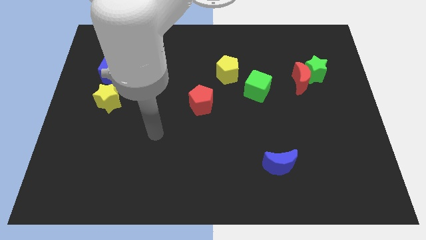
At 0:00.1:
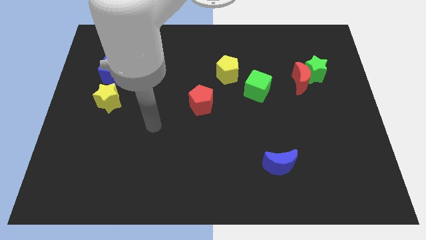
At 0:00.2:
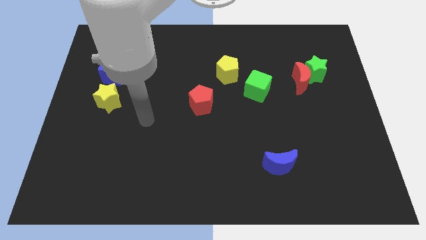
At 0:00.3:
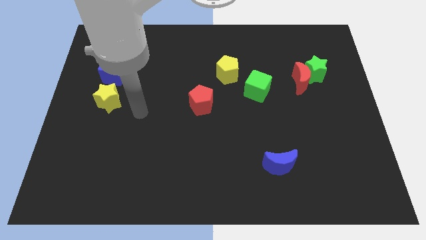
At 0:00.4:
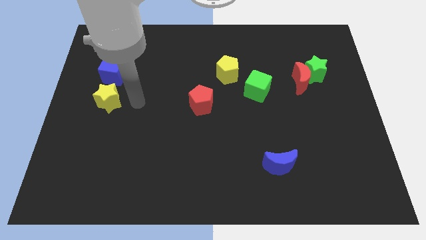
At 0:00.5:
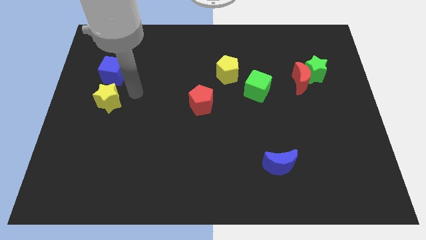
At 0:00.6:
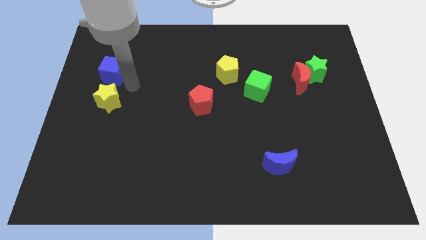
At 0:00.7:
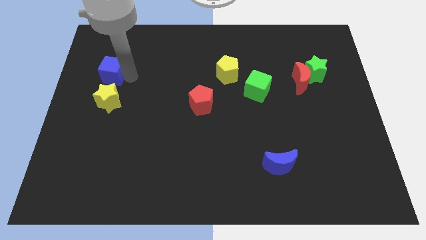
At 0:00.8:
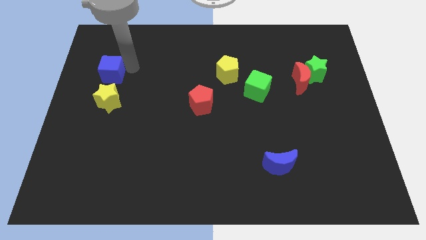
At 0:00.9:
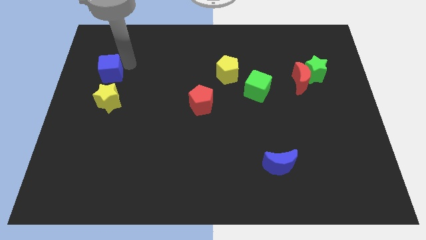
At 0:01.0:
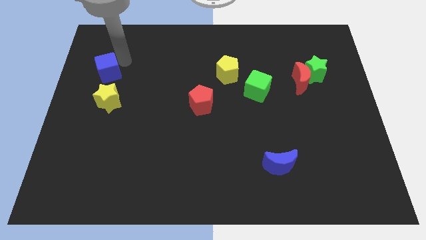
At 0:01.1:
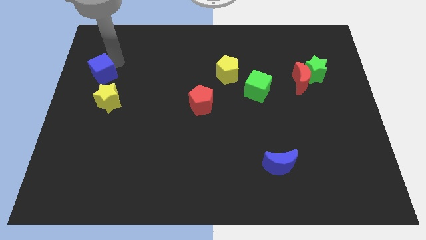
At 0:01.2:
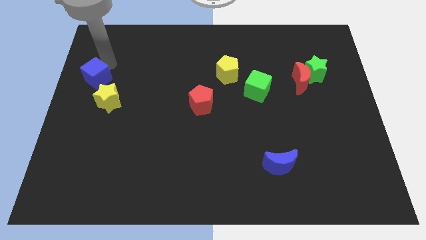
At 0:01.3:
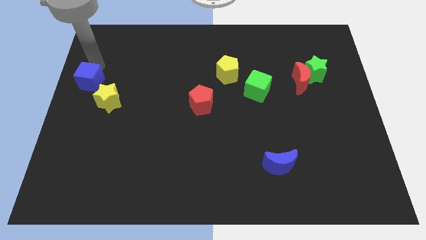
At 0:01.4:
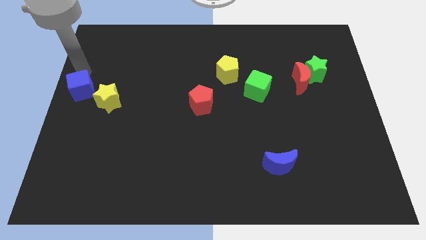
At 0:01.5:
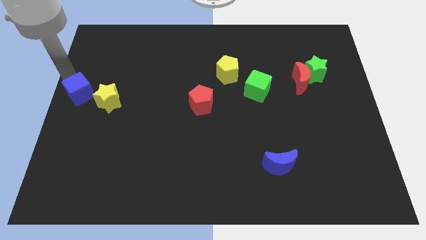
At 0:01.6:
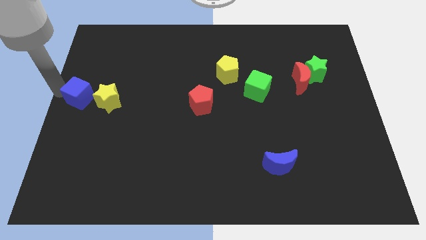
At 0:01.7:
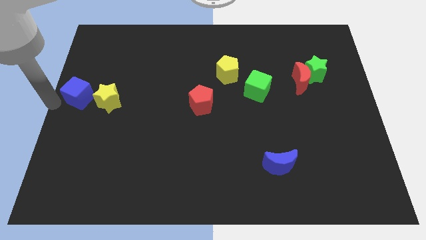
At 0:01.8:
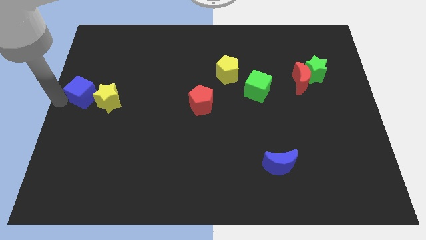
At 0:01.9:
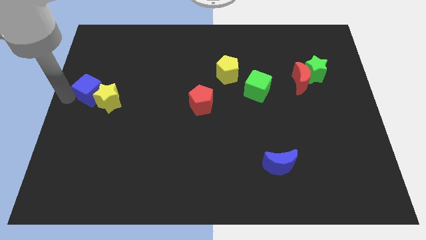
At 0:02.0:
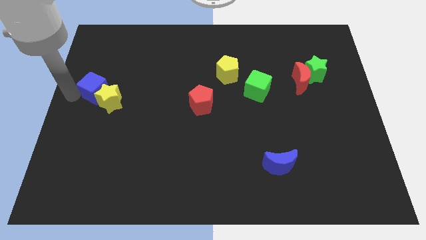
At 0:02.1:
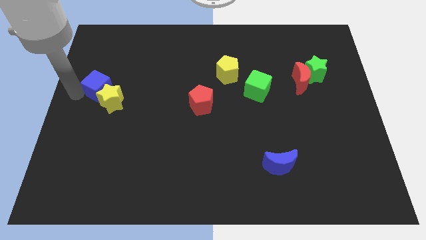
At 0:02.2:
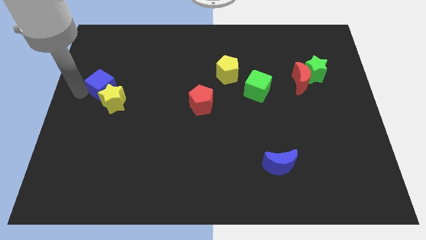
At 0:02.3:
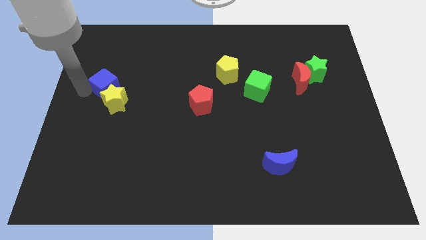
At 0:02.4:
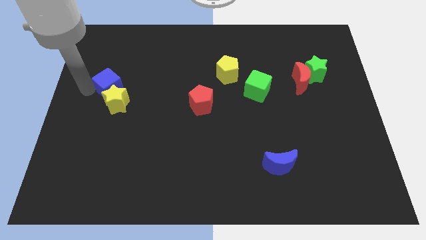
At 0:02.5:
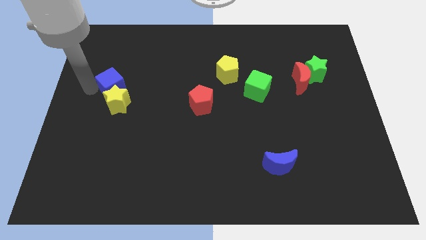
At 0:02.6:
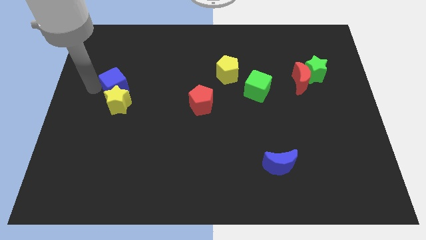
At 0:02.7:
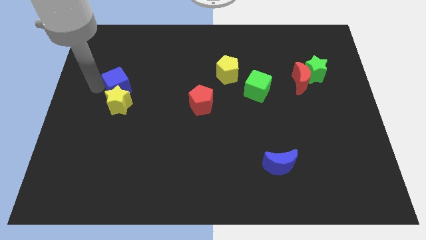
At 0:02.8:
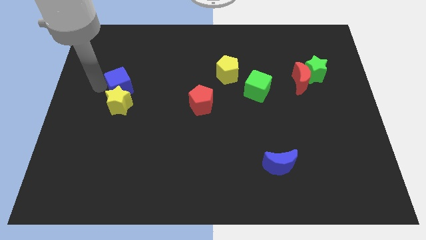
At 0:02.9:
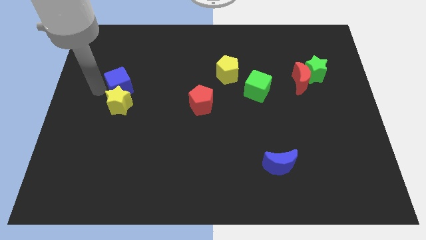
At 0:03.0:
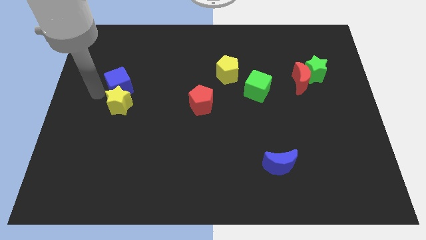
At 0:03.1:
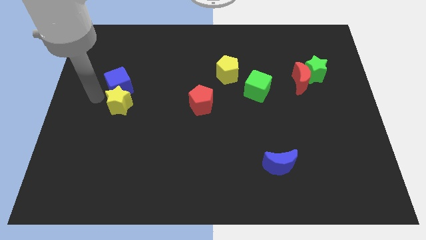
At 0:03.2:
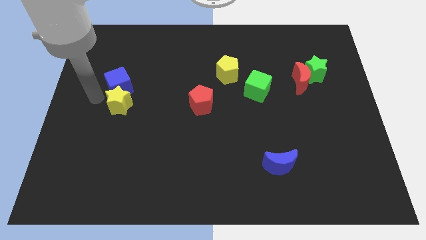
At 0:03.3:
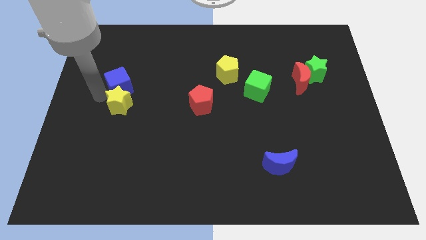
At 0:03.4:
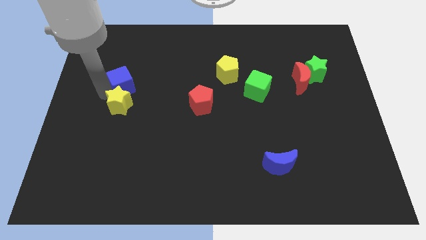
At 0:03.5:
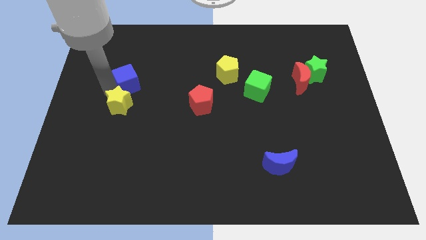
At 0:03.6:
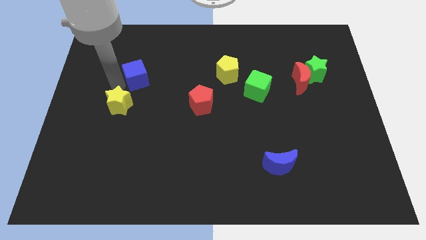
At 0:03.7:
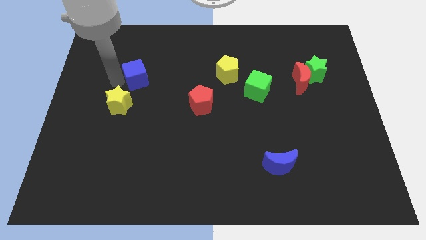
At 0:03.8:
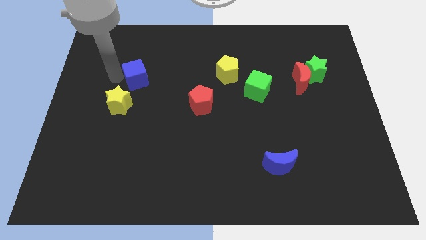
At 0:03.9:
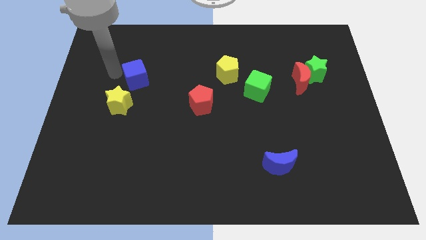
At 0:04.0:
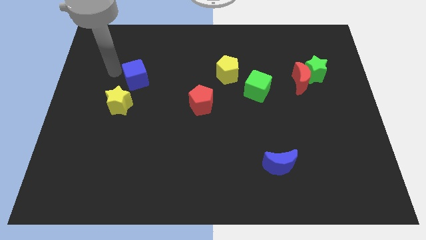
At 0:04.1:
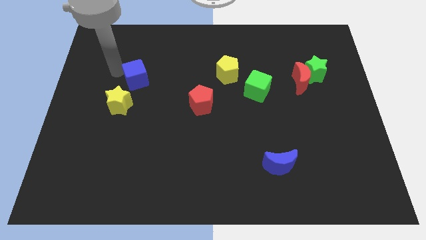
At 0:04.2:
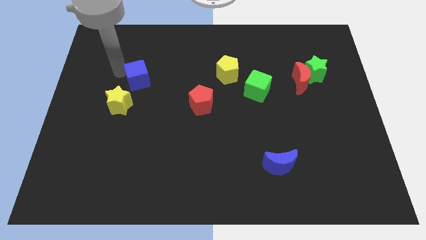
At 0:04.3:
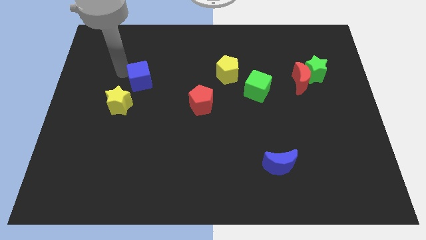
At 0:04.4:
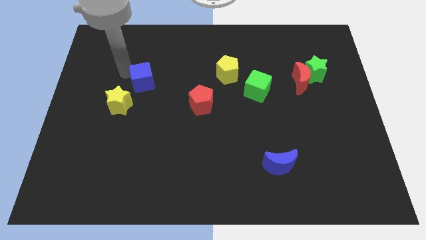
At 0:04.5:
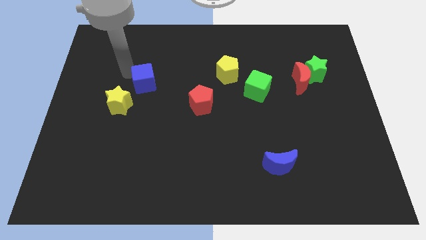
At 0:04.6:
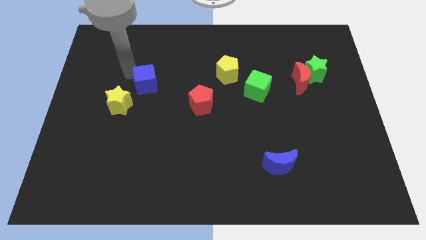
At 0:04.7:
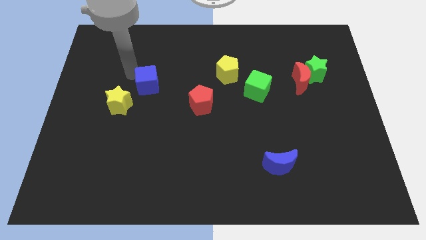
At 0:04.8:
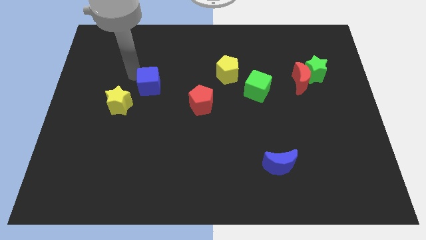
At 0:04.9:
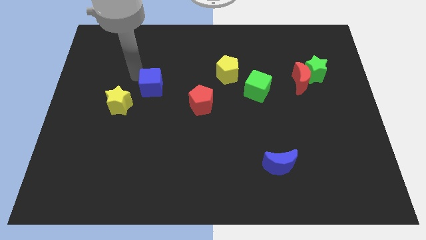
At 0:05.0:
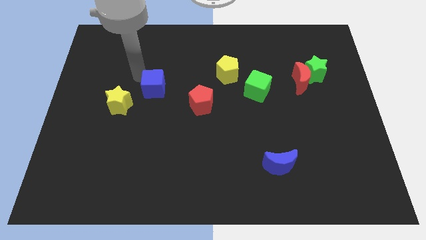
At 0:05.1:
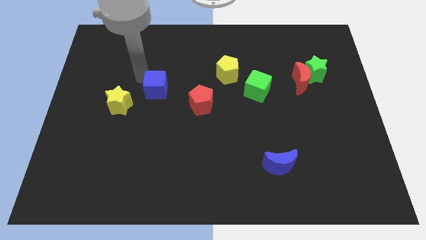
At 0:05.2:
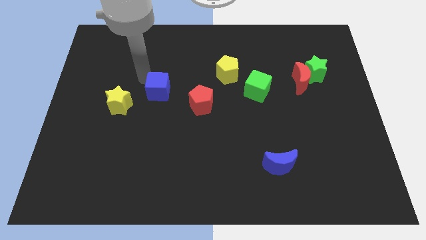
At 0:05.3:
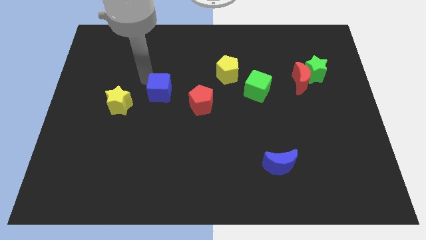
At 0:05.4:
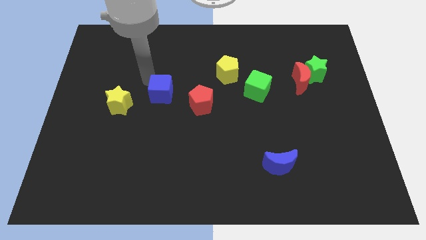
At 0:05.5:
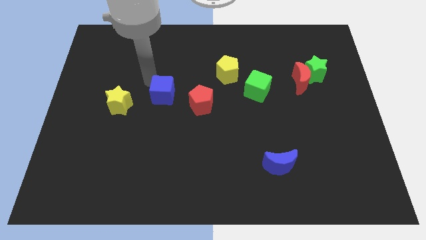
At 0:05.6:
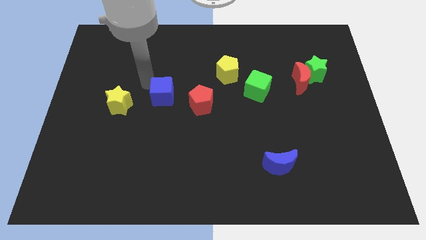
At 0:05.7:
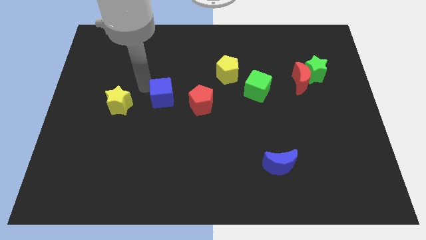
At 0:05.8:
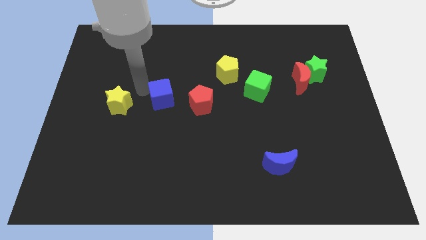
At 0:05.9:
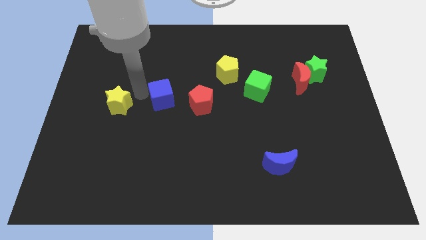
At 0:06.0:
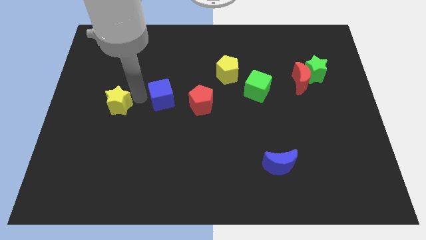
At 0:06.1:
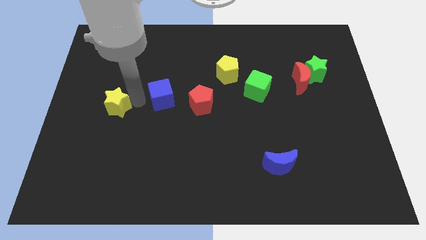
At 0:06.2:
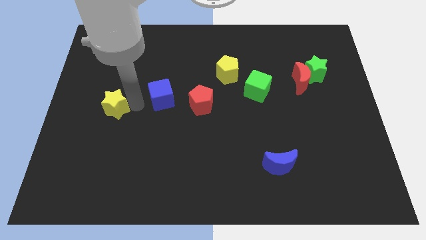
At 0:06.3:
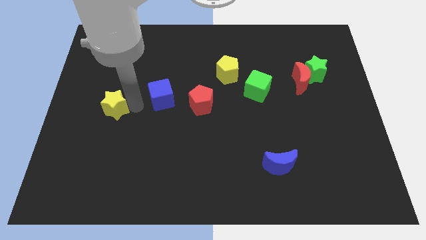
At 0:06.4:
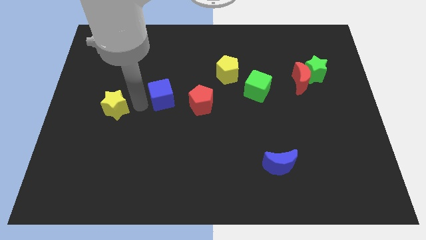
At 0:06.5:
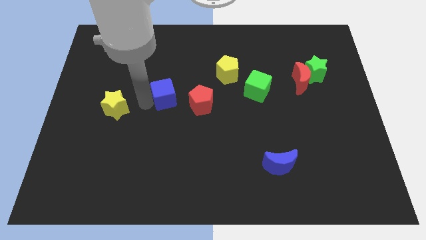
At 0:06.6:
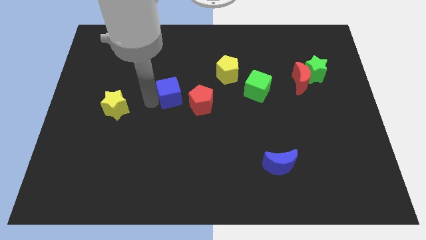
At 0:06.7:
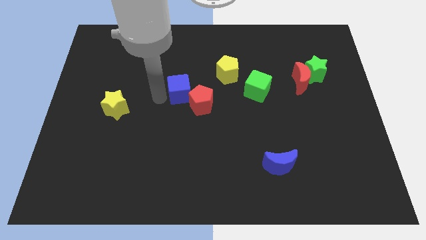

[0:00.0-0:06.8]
slide the blue cube towards the red pentagon

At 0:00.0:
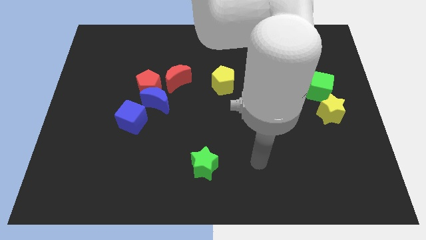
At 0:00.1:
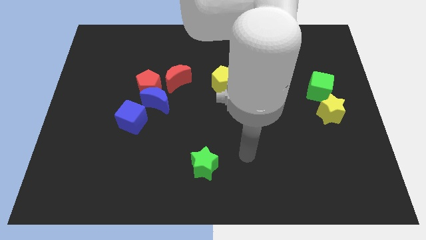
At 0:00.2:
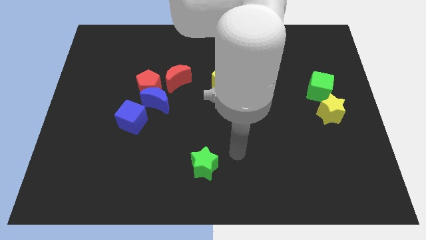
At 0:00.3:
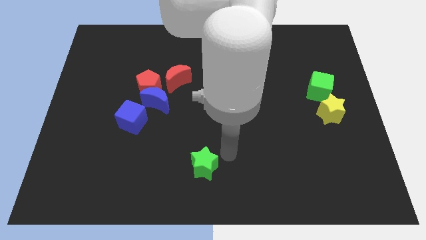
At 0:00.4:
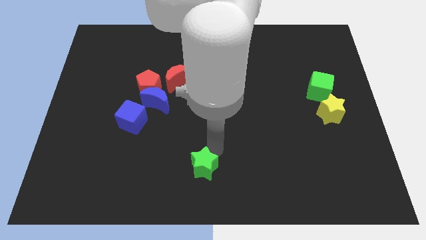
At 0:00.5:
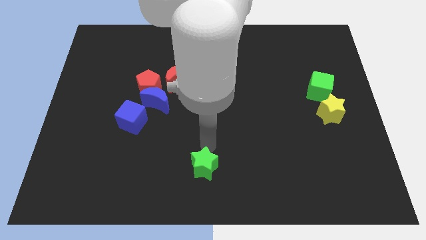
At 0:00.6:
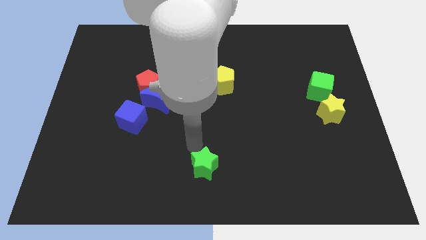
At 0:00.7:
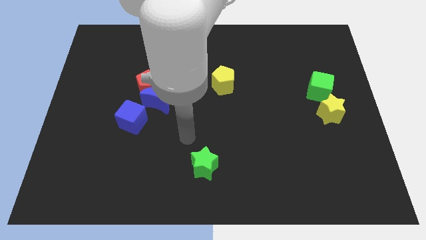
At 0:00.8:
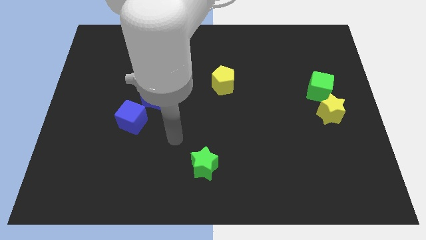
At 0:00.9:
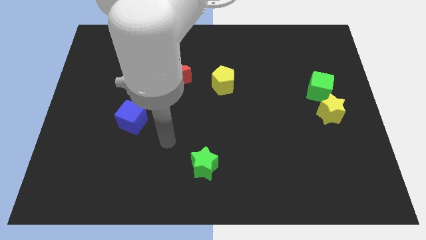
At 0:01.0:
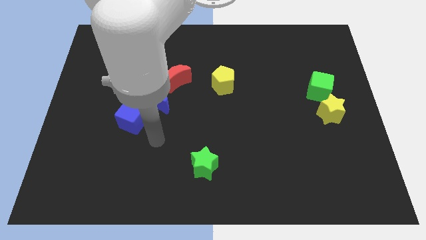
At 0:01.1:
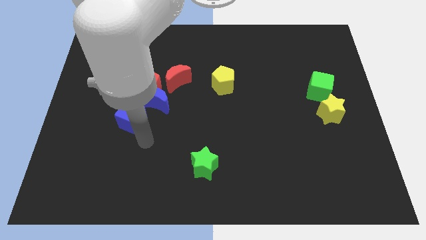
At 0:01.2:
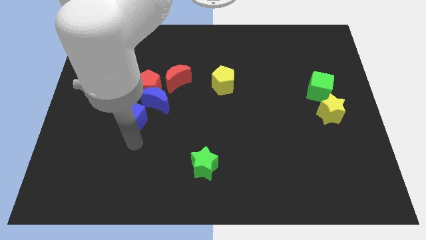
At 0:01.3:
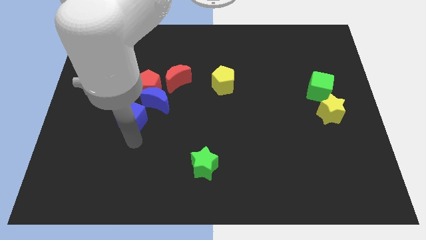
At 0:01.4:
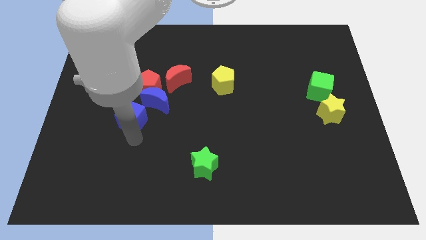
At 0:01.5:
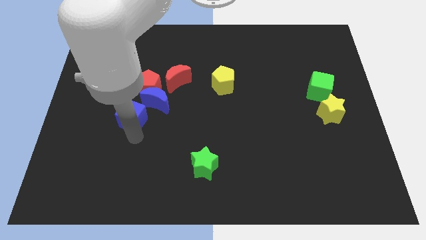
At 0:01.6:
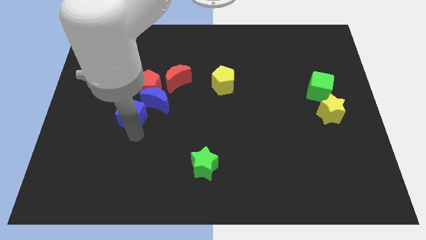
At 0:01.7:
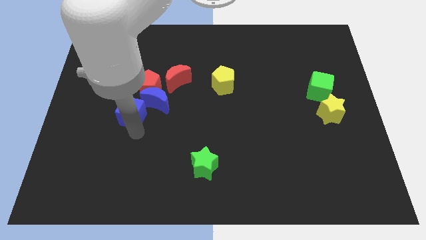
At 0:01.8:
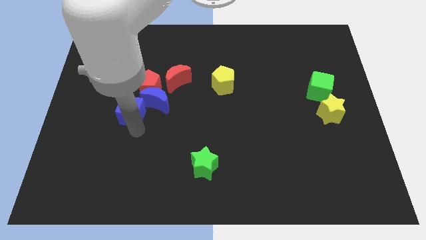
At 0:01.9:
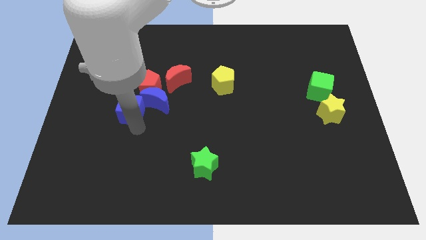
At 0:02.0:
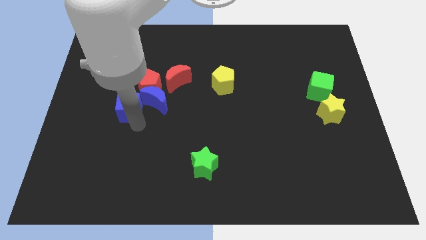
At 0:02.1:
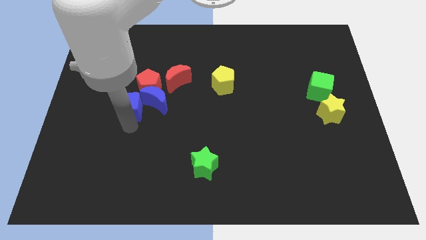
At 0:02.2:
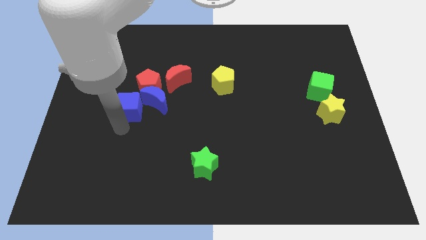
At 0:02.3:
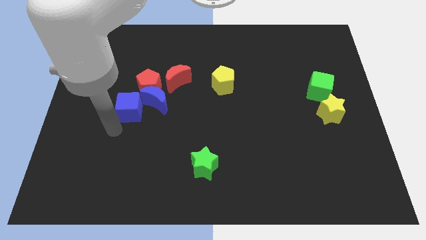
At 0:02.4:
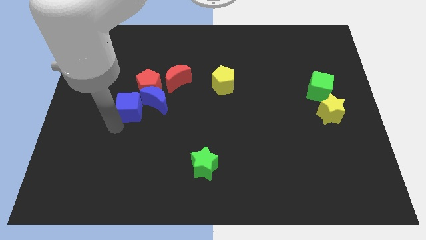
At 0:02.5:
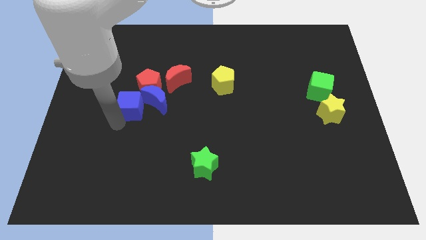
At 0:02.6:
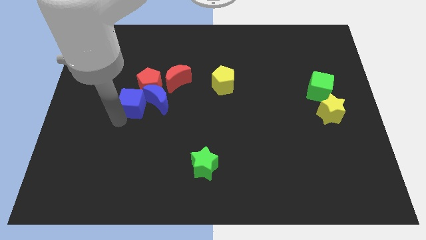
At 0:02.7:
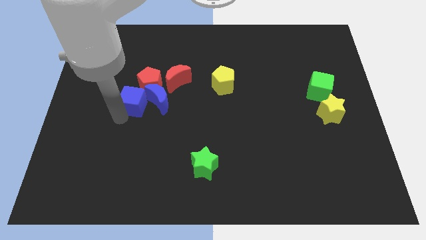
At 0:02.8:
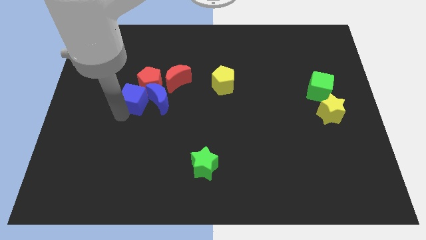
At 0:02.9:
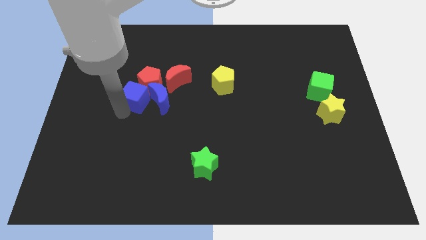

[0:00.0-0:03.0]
put the blue cube close to the red pentagon
